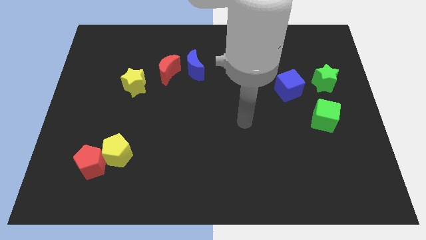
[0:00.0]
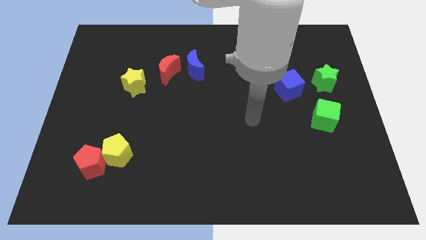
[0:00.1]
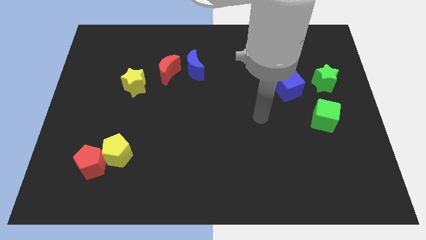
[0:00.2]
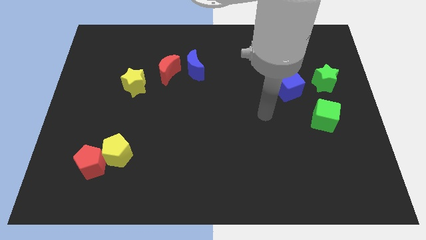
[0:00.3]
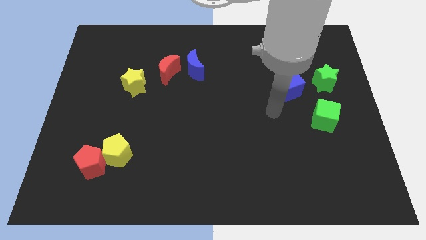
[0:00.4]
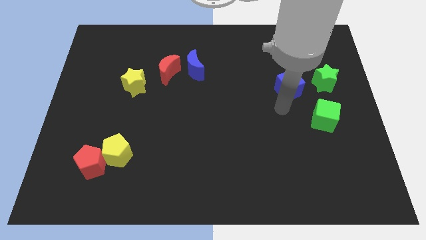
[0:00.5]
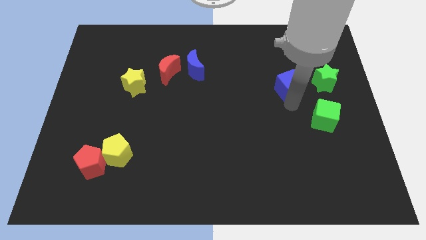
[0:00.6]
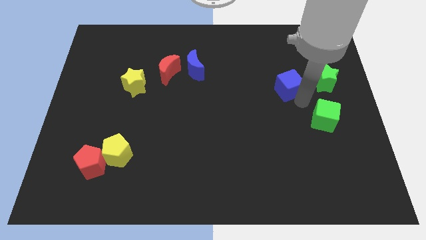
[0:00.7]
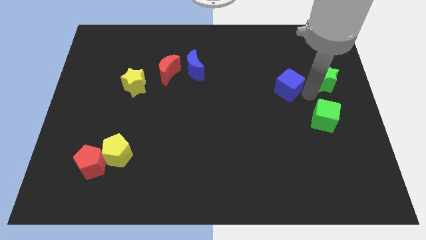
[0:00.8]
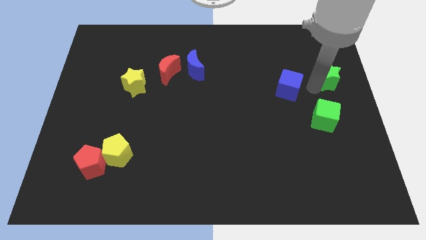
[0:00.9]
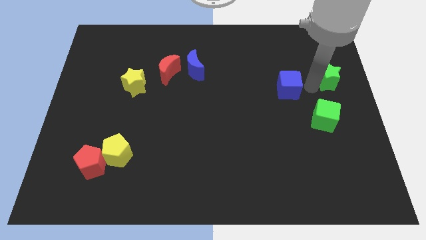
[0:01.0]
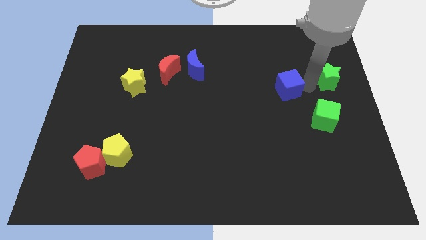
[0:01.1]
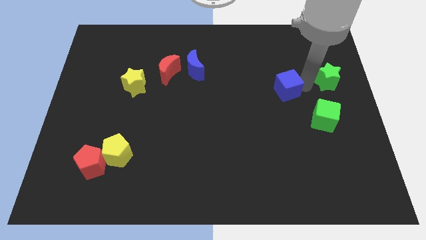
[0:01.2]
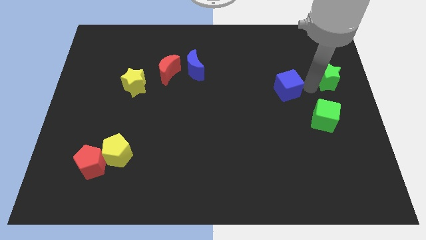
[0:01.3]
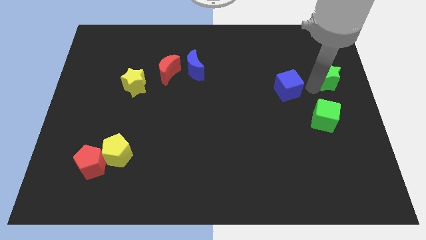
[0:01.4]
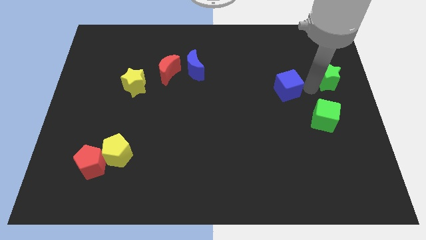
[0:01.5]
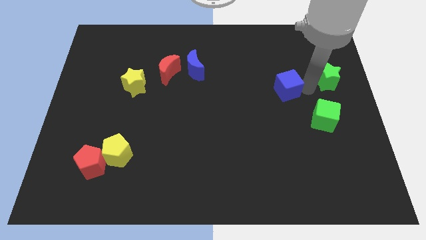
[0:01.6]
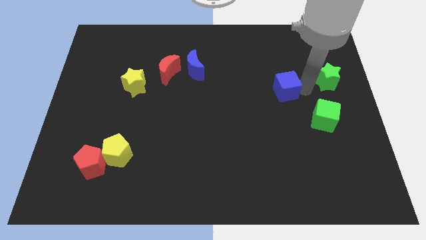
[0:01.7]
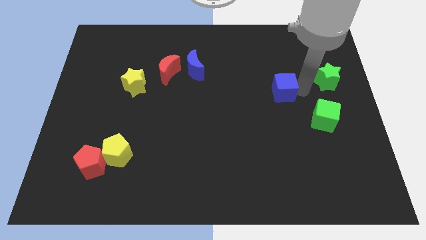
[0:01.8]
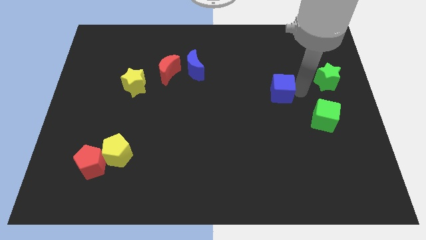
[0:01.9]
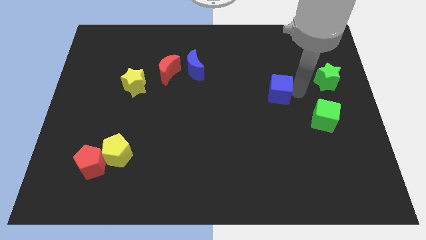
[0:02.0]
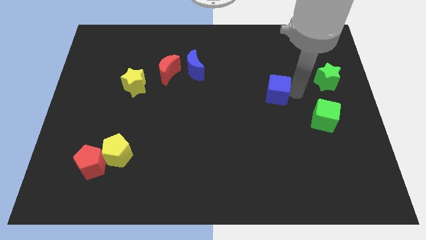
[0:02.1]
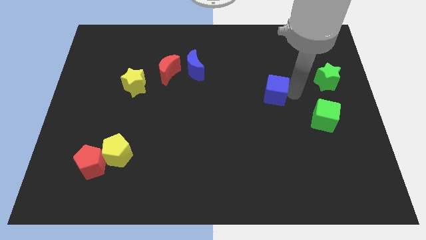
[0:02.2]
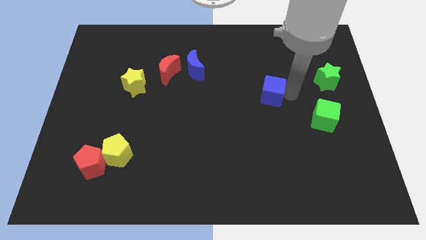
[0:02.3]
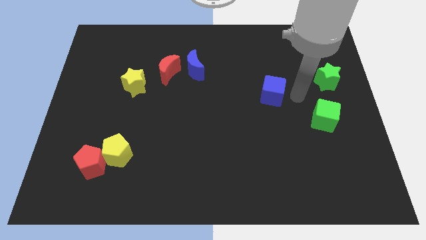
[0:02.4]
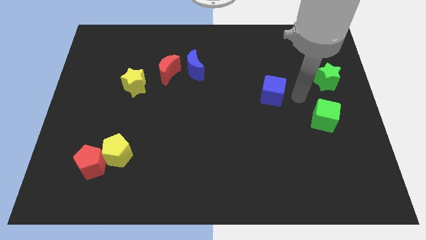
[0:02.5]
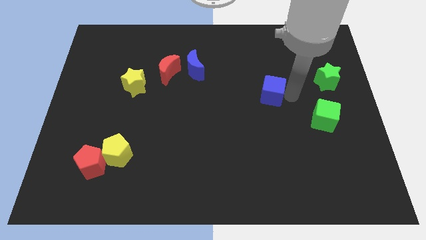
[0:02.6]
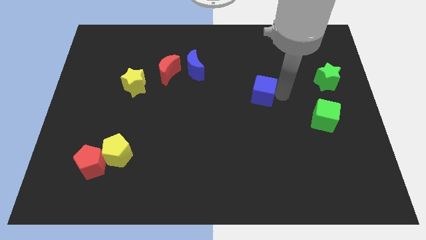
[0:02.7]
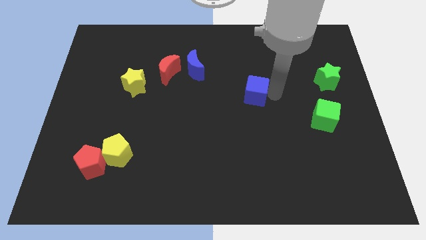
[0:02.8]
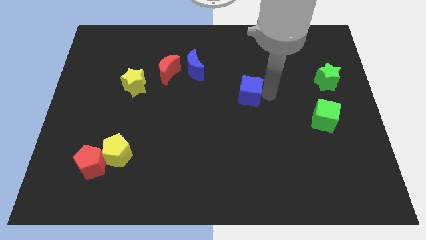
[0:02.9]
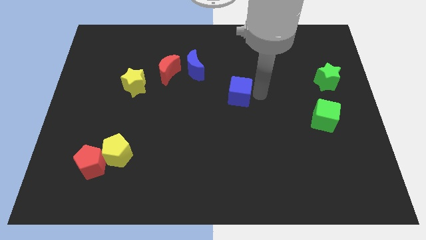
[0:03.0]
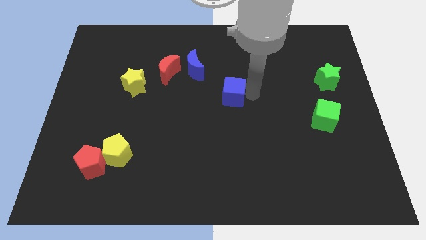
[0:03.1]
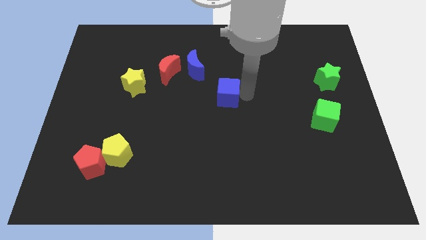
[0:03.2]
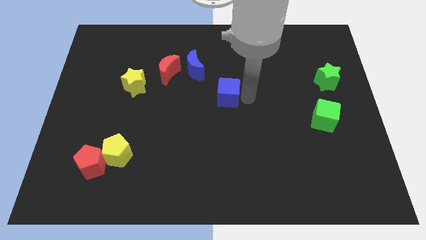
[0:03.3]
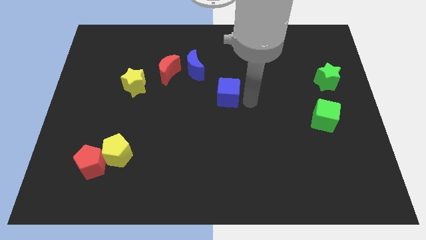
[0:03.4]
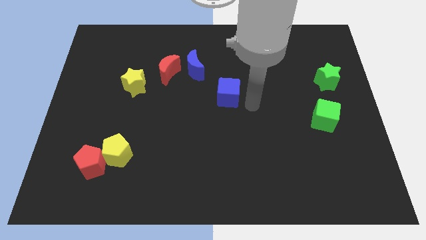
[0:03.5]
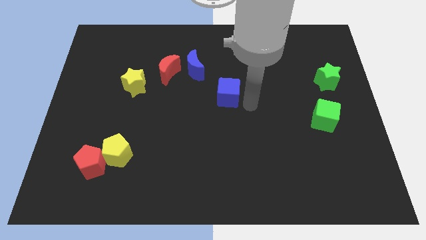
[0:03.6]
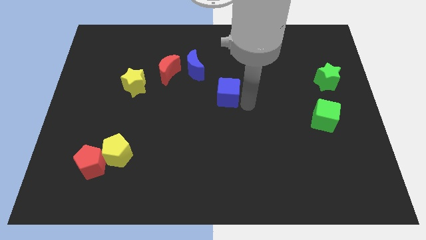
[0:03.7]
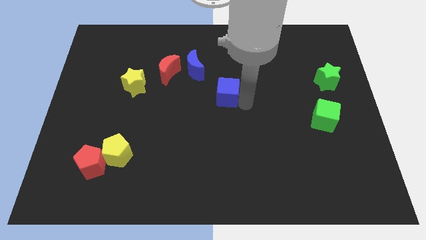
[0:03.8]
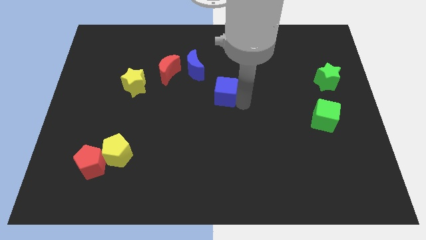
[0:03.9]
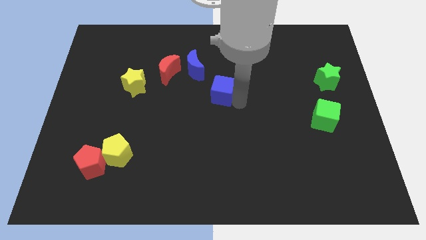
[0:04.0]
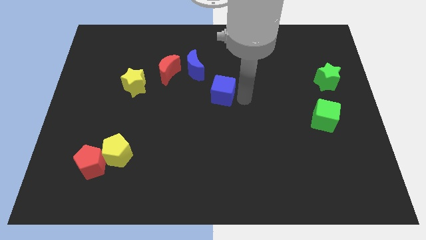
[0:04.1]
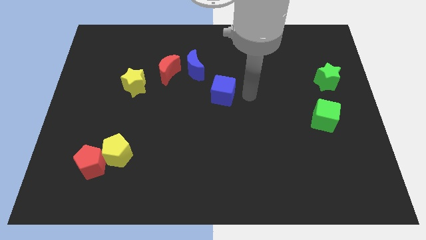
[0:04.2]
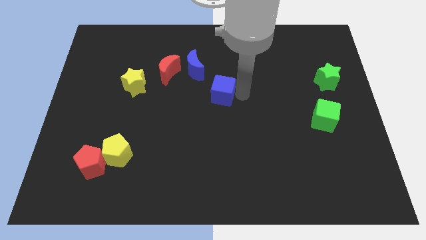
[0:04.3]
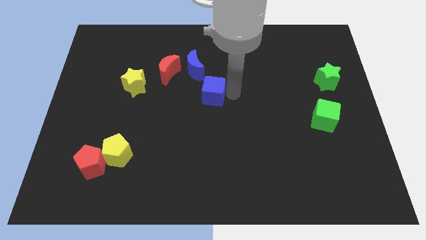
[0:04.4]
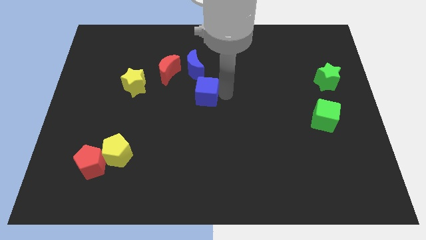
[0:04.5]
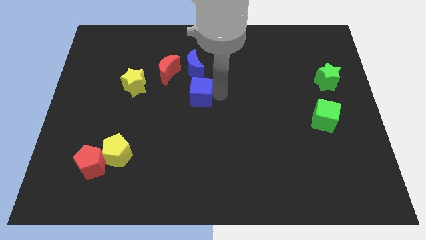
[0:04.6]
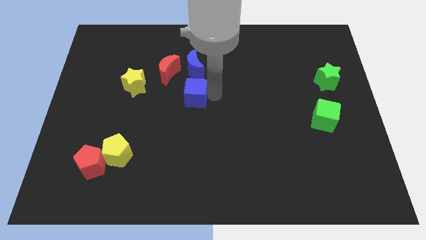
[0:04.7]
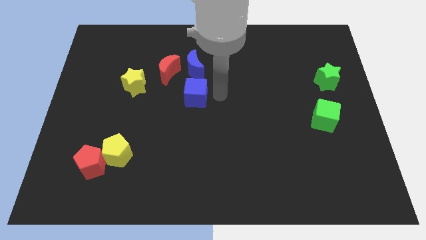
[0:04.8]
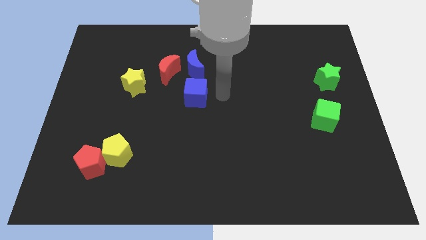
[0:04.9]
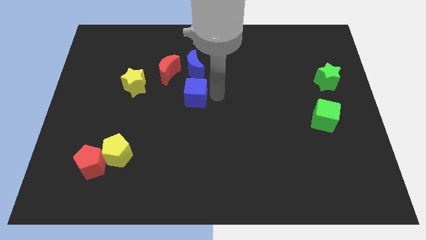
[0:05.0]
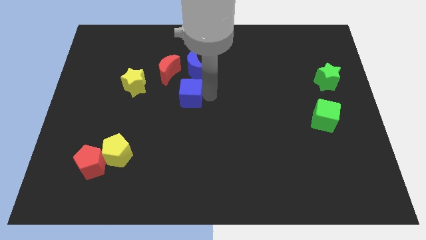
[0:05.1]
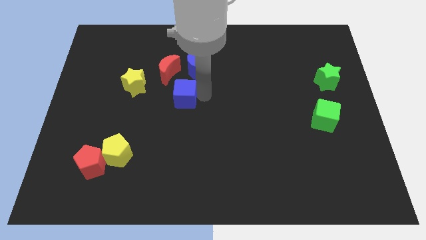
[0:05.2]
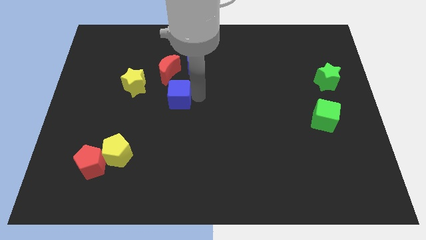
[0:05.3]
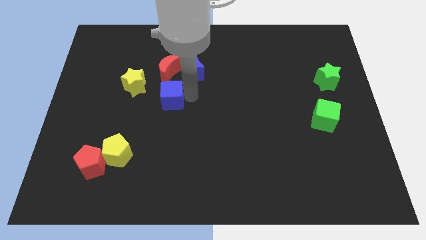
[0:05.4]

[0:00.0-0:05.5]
move the blue cube to the bottom right side of the yellow star

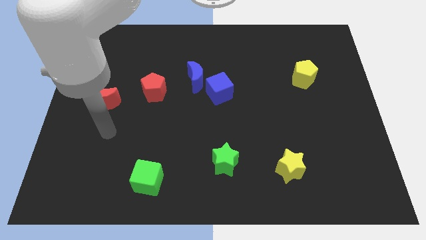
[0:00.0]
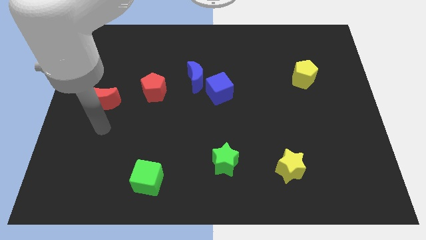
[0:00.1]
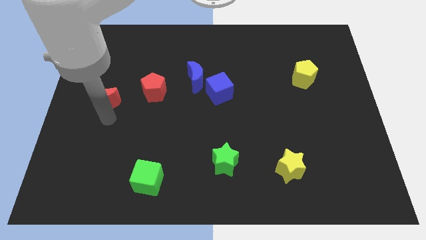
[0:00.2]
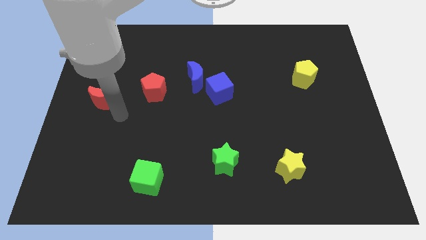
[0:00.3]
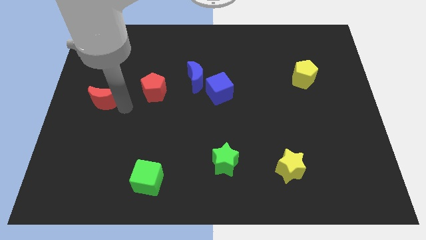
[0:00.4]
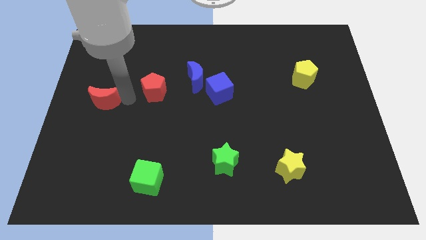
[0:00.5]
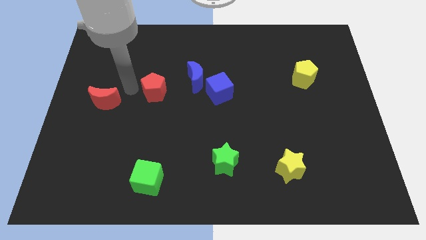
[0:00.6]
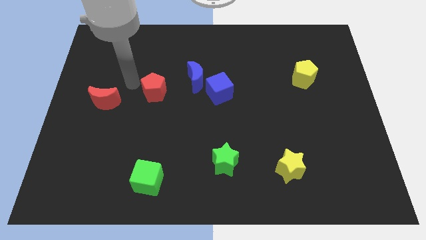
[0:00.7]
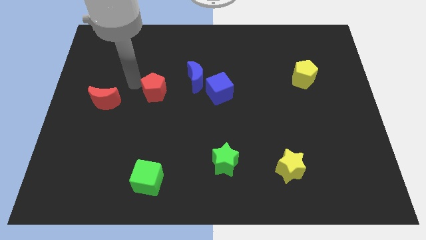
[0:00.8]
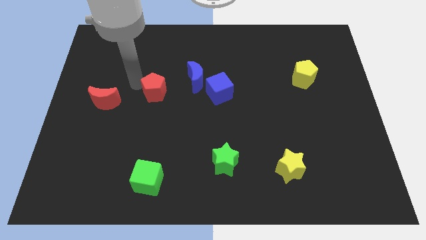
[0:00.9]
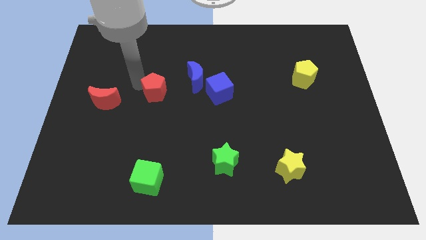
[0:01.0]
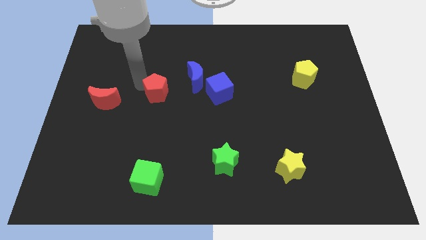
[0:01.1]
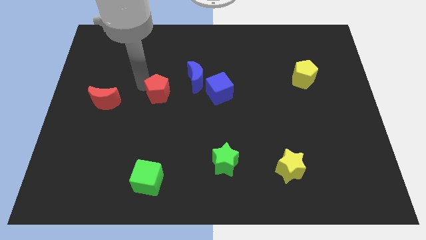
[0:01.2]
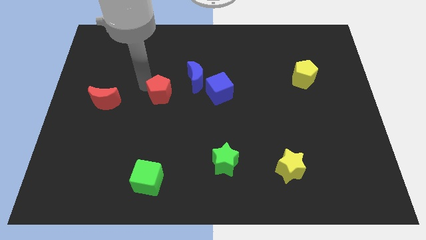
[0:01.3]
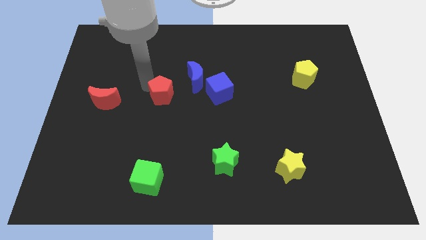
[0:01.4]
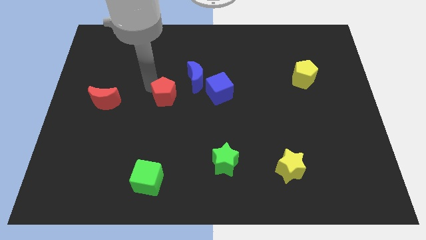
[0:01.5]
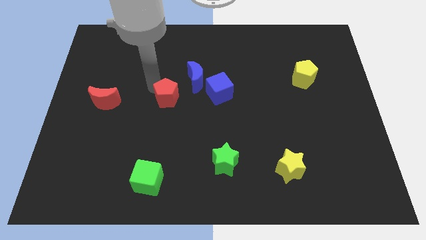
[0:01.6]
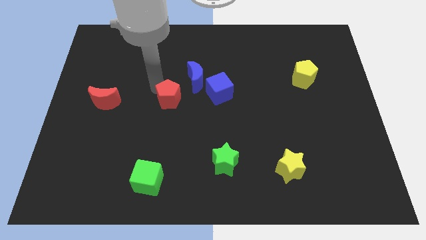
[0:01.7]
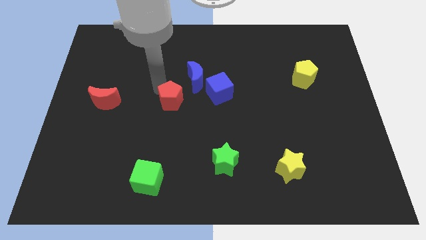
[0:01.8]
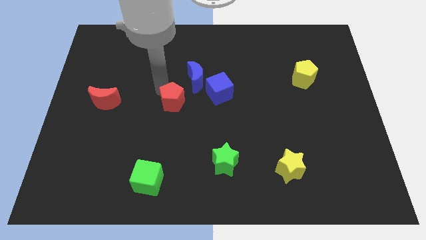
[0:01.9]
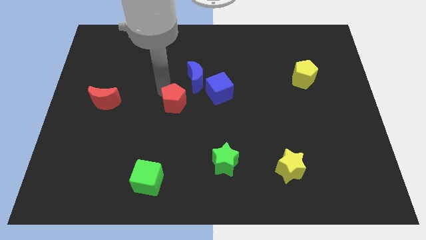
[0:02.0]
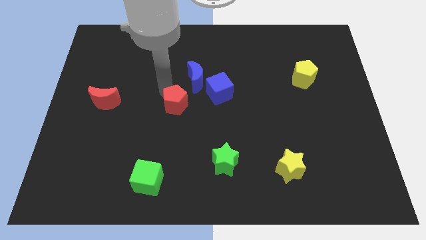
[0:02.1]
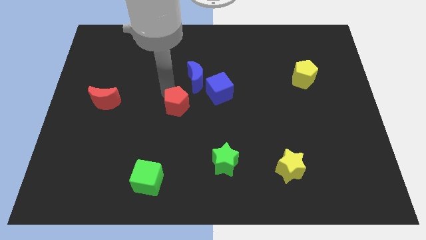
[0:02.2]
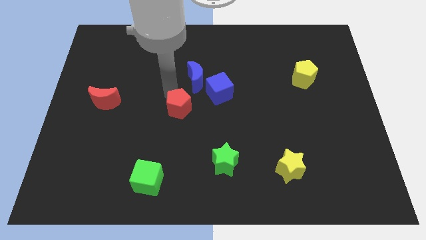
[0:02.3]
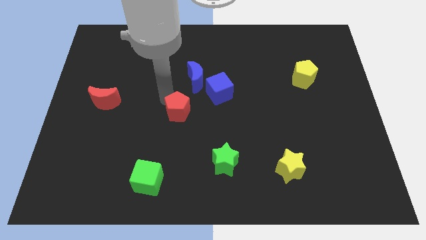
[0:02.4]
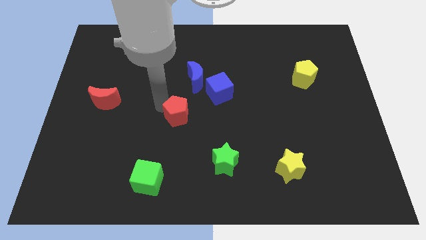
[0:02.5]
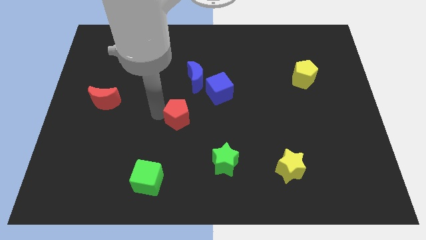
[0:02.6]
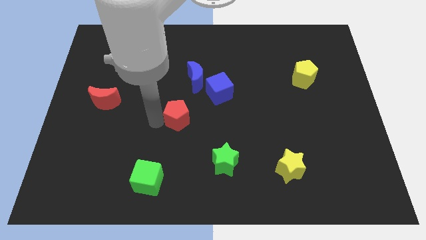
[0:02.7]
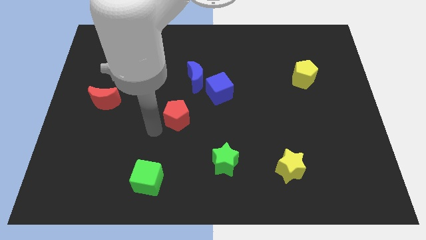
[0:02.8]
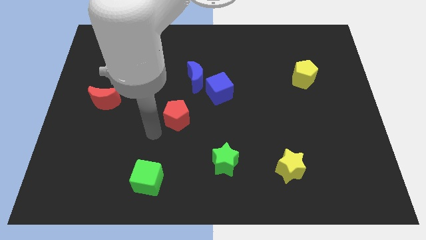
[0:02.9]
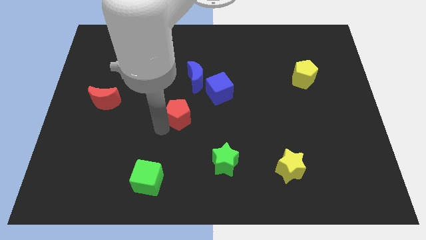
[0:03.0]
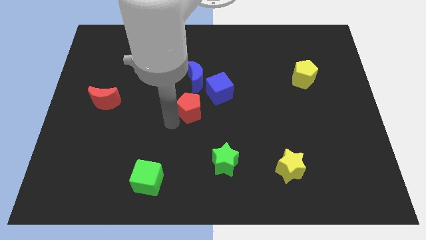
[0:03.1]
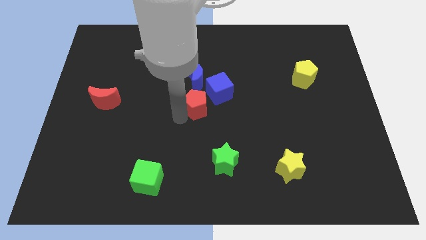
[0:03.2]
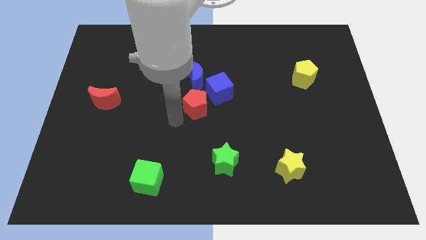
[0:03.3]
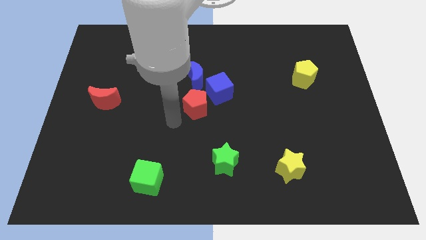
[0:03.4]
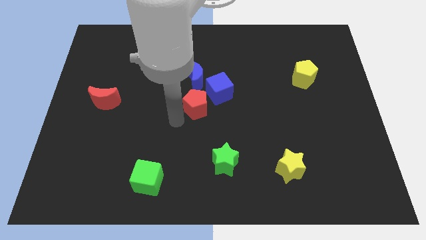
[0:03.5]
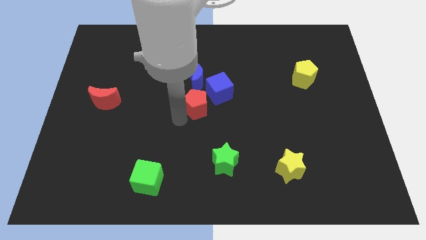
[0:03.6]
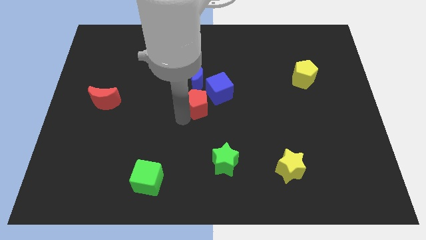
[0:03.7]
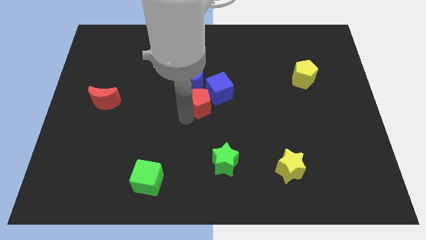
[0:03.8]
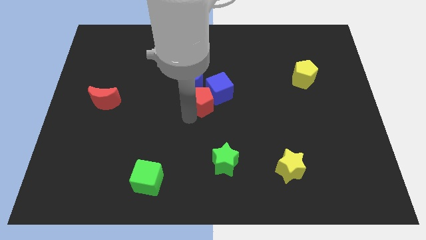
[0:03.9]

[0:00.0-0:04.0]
move the red pentagon to the bottom right side of the blue moon
